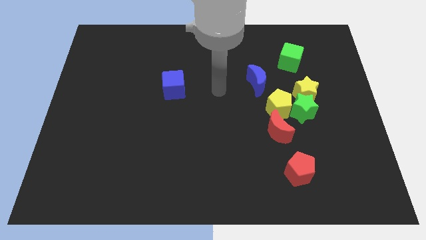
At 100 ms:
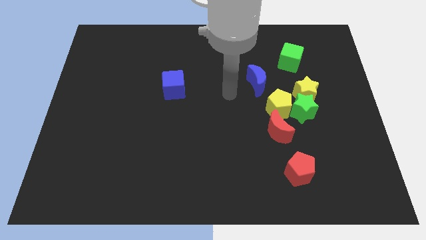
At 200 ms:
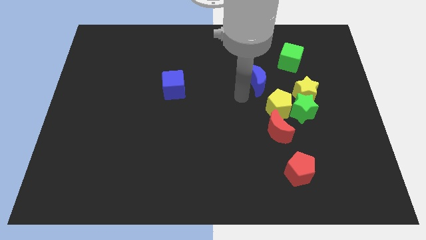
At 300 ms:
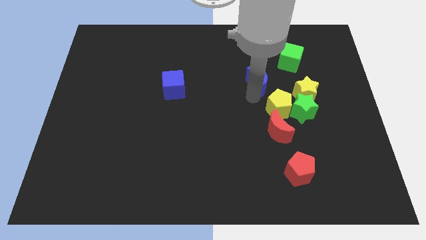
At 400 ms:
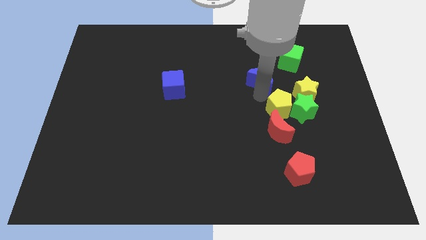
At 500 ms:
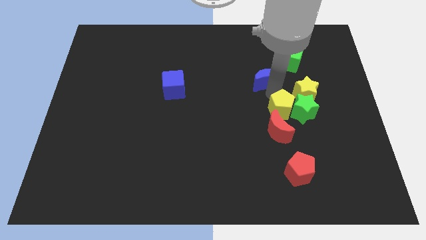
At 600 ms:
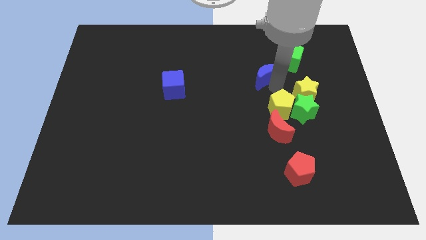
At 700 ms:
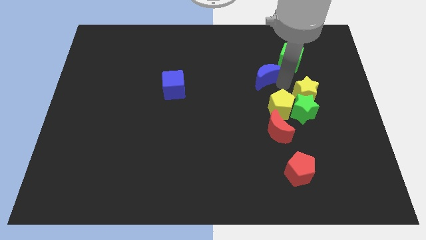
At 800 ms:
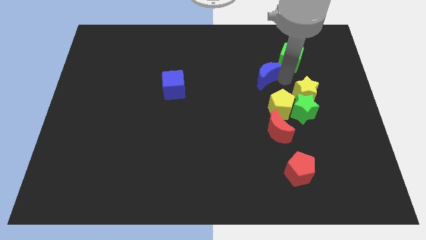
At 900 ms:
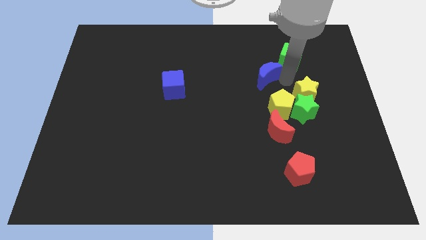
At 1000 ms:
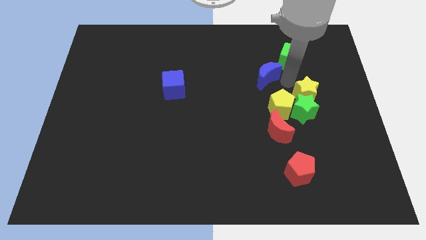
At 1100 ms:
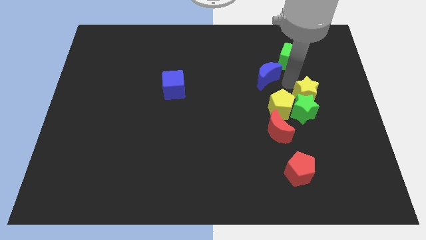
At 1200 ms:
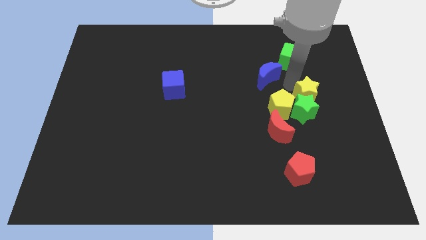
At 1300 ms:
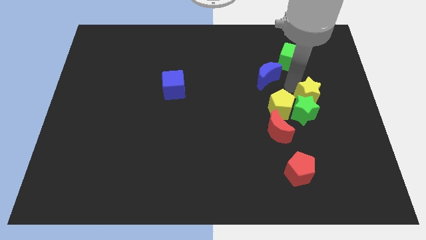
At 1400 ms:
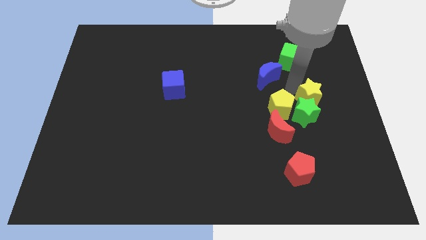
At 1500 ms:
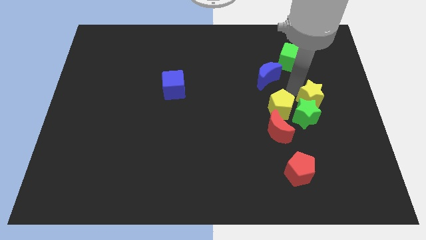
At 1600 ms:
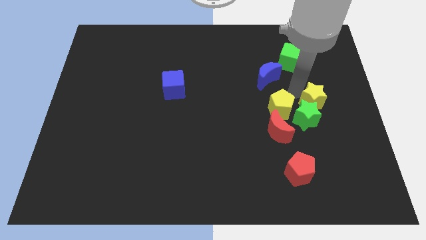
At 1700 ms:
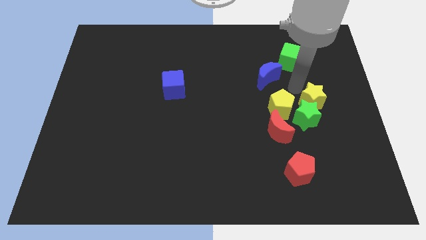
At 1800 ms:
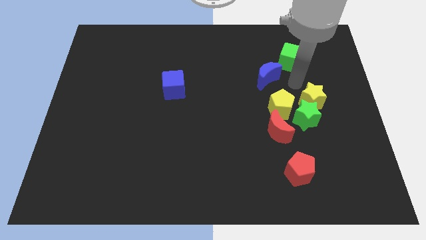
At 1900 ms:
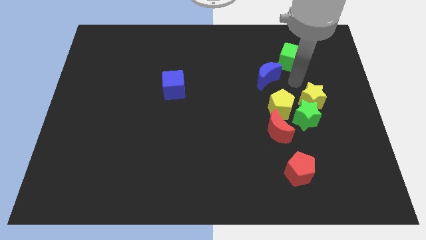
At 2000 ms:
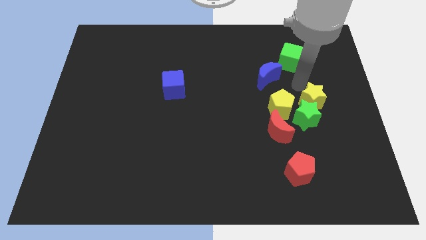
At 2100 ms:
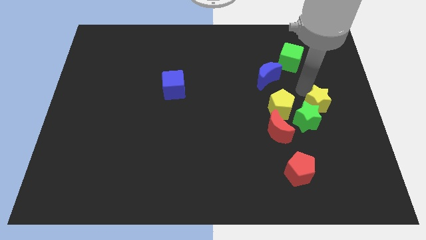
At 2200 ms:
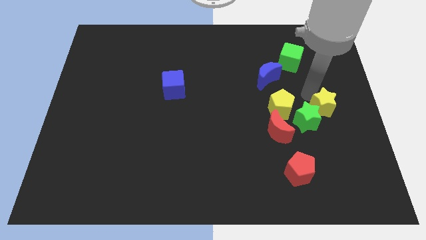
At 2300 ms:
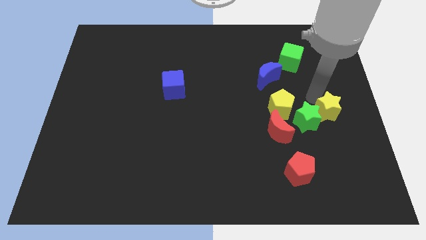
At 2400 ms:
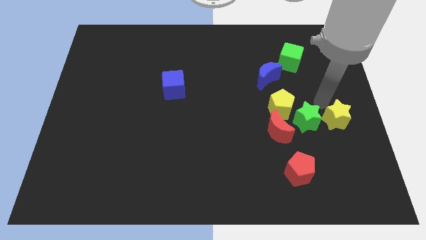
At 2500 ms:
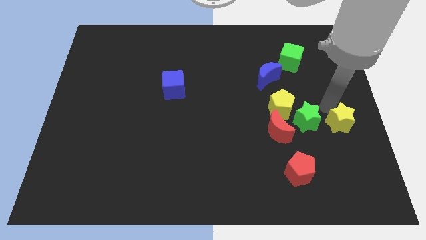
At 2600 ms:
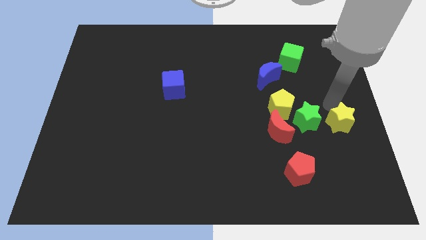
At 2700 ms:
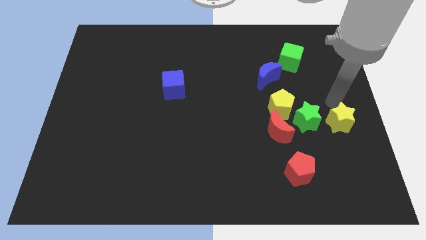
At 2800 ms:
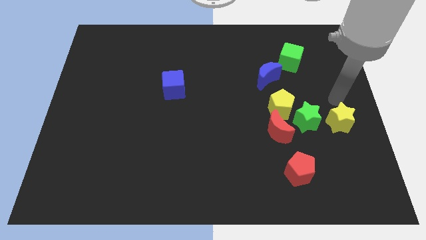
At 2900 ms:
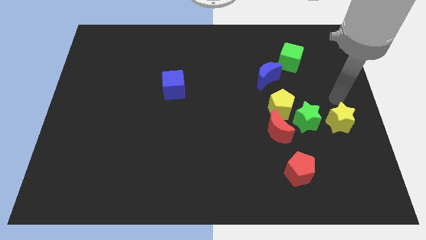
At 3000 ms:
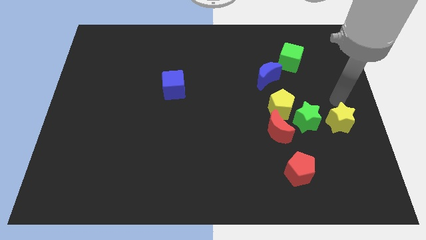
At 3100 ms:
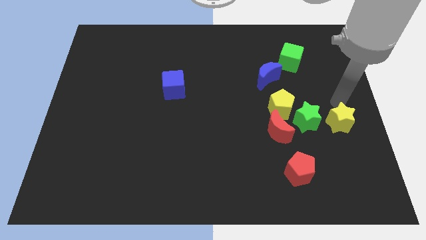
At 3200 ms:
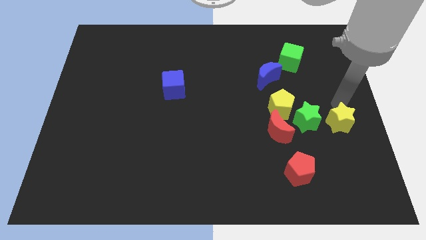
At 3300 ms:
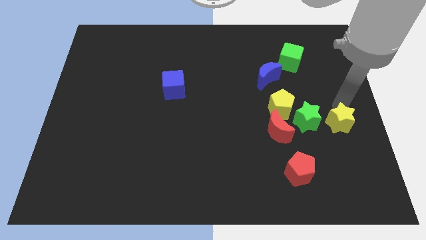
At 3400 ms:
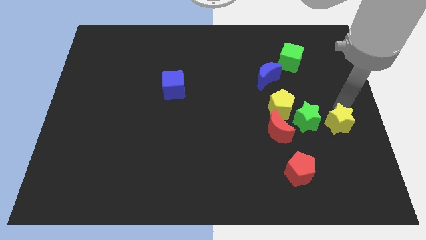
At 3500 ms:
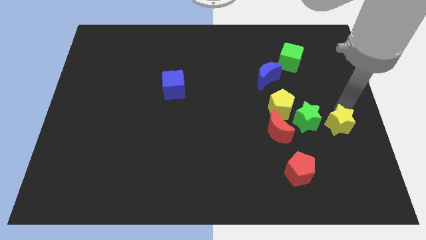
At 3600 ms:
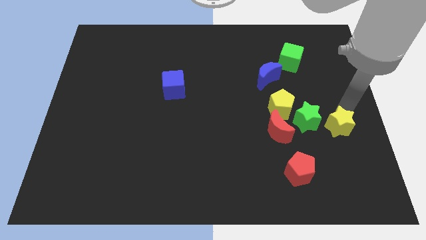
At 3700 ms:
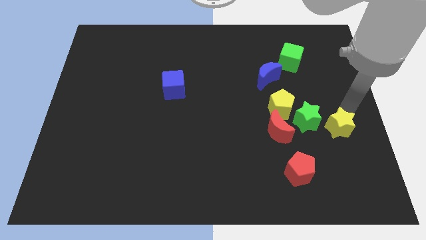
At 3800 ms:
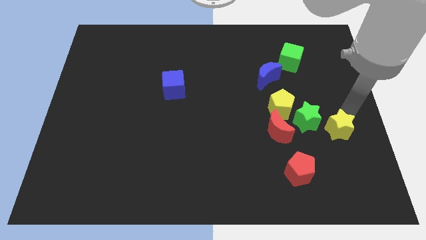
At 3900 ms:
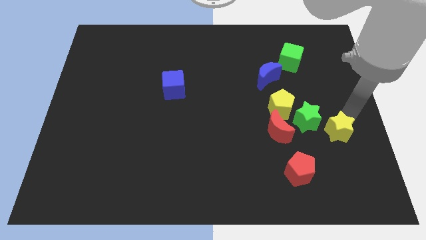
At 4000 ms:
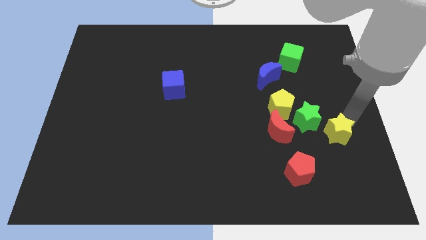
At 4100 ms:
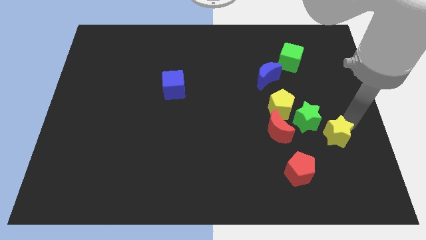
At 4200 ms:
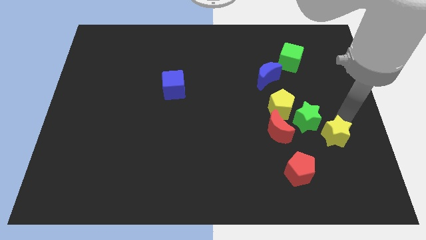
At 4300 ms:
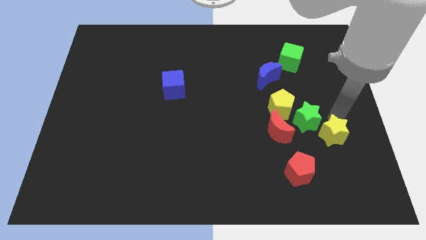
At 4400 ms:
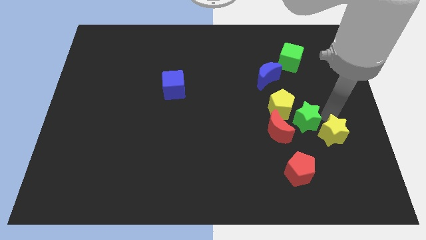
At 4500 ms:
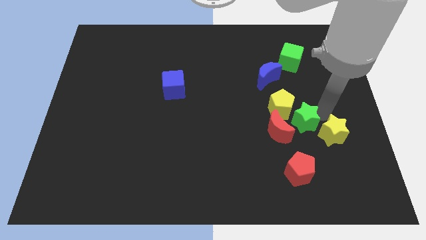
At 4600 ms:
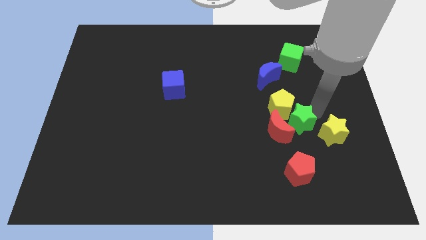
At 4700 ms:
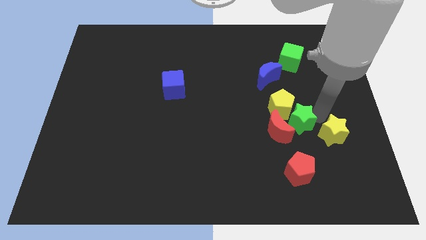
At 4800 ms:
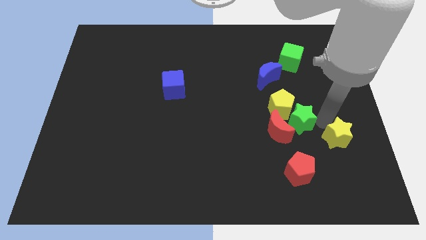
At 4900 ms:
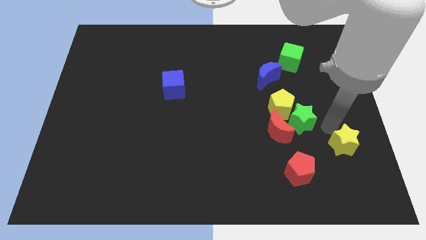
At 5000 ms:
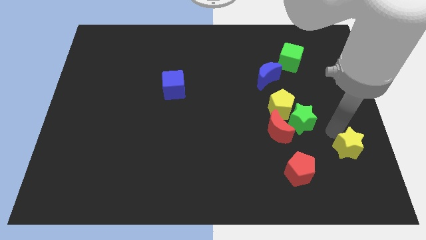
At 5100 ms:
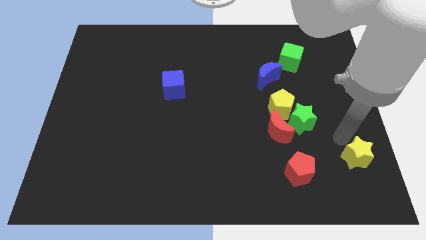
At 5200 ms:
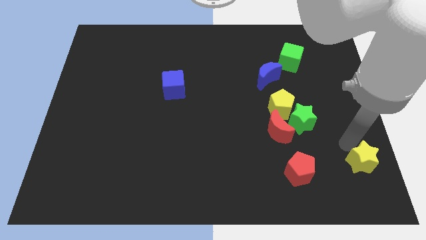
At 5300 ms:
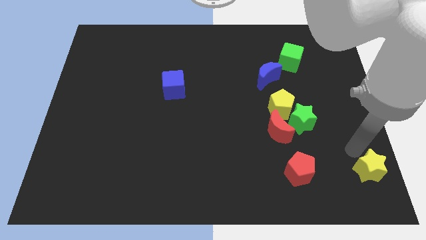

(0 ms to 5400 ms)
put the yellow star to the bottom right corner

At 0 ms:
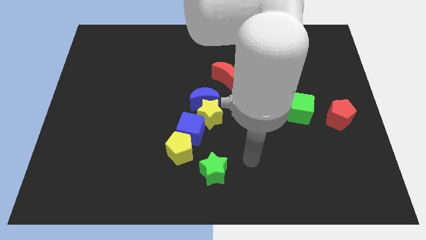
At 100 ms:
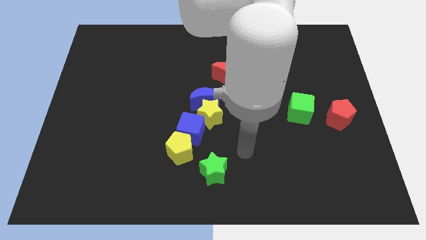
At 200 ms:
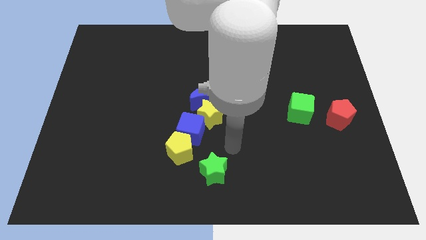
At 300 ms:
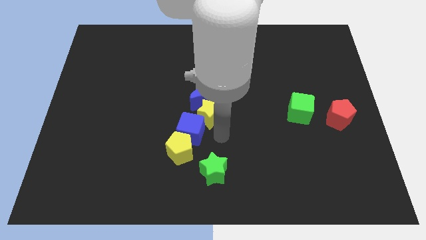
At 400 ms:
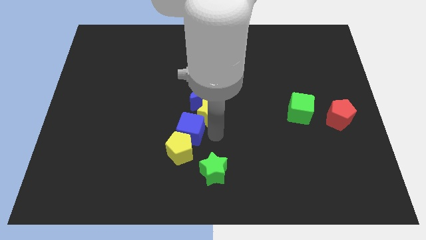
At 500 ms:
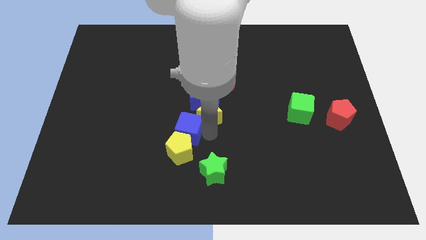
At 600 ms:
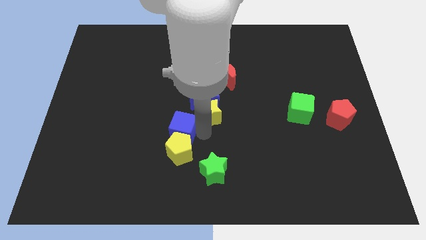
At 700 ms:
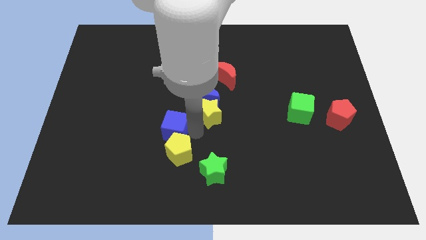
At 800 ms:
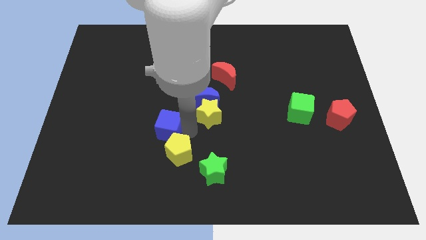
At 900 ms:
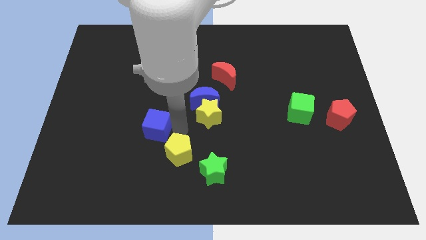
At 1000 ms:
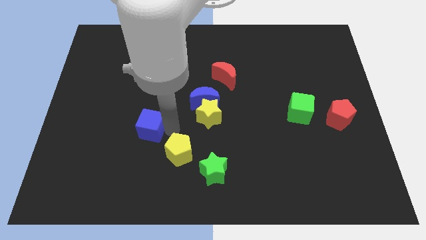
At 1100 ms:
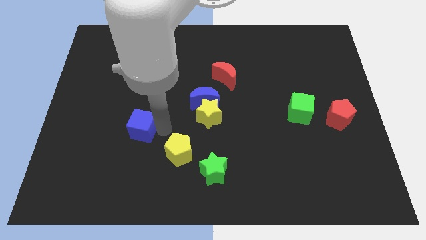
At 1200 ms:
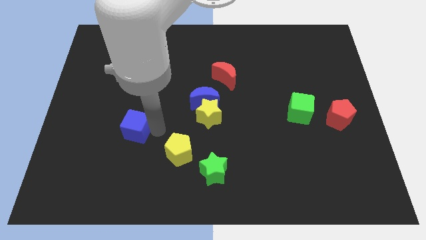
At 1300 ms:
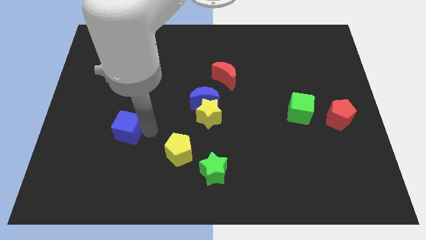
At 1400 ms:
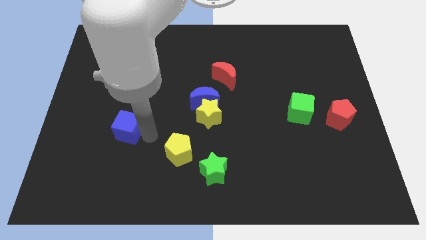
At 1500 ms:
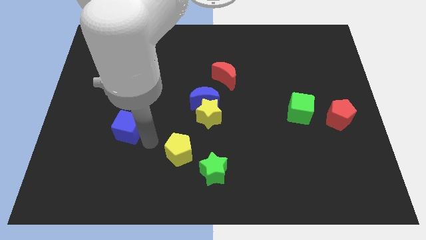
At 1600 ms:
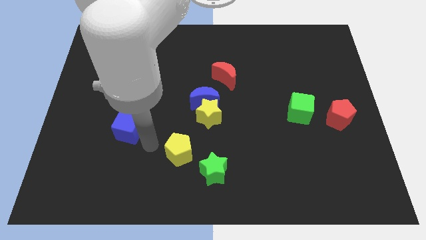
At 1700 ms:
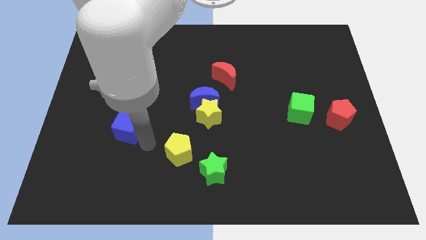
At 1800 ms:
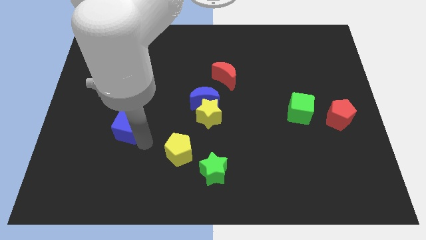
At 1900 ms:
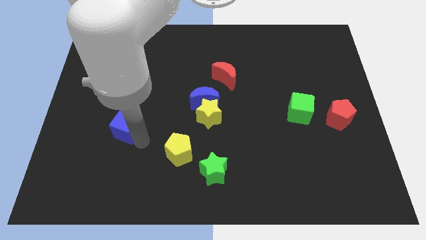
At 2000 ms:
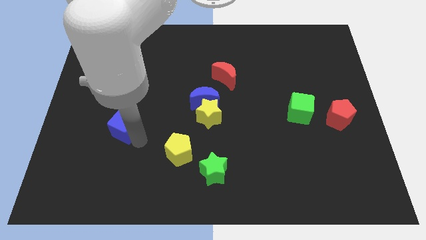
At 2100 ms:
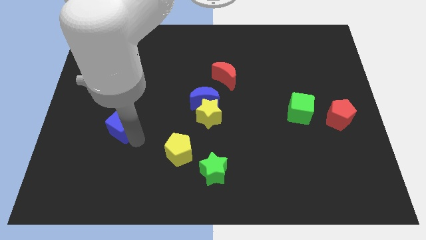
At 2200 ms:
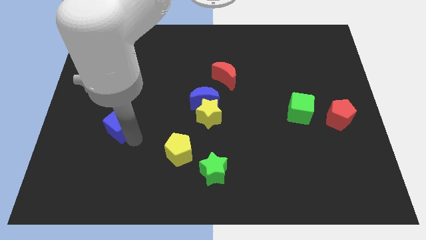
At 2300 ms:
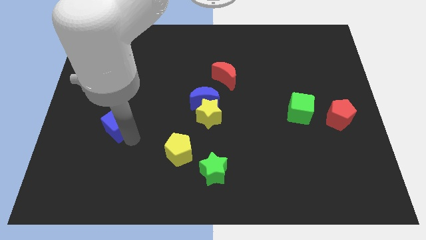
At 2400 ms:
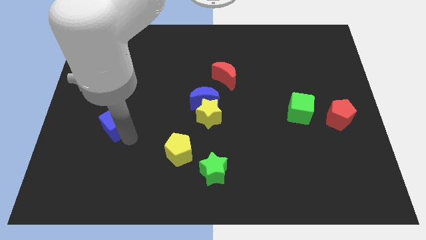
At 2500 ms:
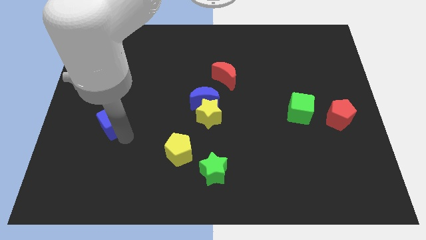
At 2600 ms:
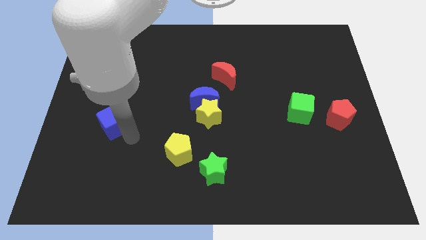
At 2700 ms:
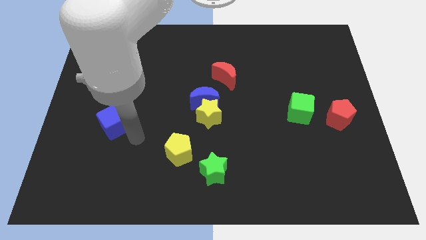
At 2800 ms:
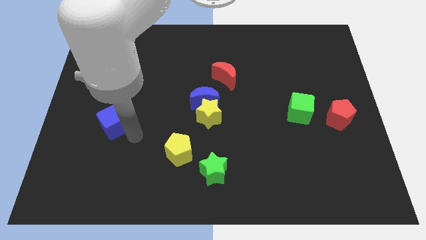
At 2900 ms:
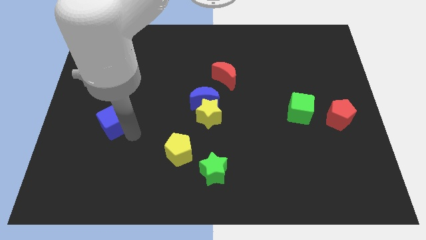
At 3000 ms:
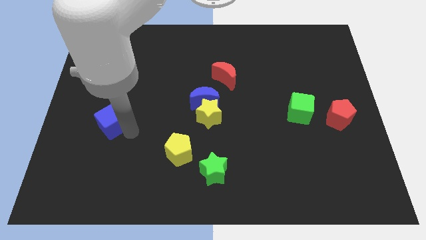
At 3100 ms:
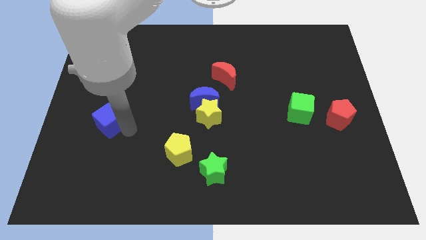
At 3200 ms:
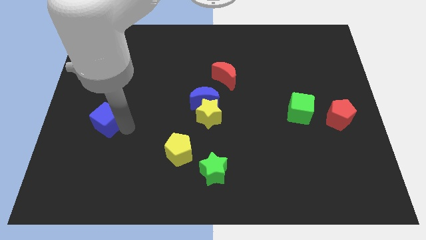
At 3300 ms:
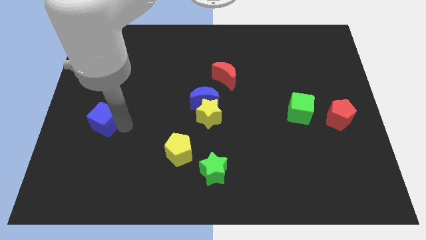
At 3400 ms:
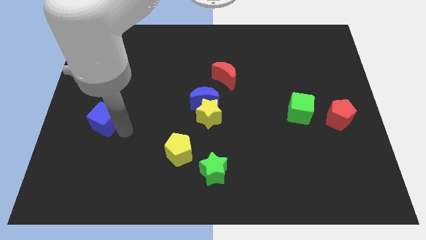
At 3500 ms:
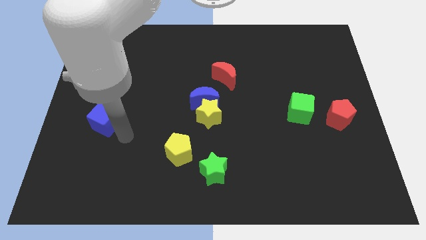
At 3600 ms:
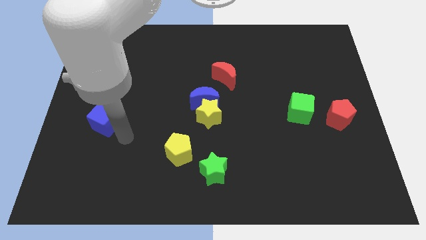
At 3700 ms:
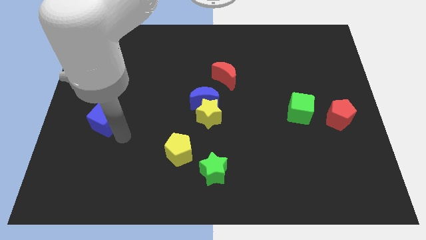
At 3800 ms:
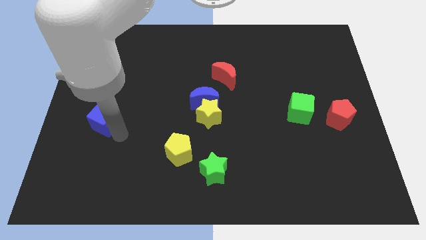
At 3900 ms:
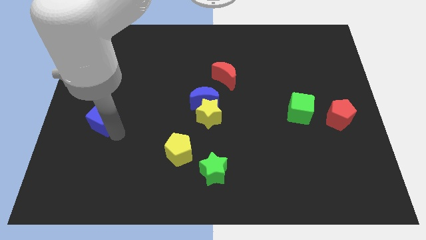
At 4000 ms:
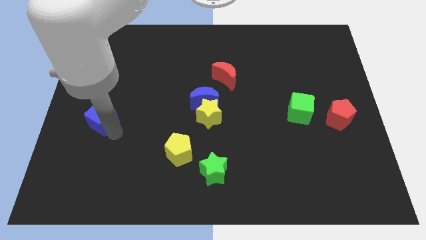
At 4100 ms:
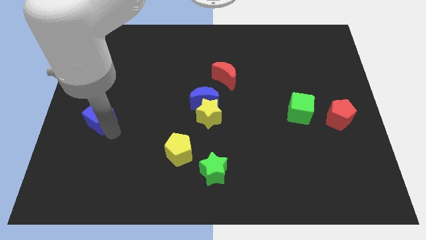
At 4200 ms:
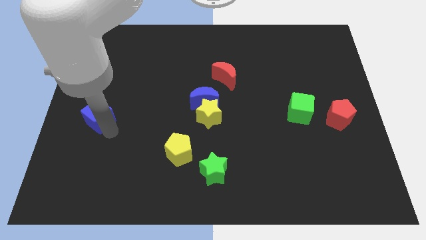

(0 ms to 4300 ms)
slide the blue cube to the center left
